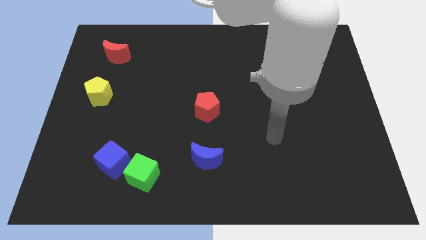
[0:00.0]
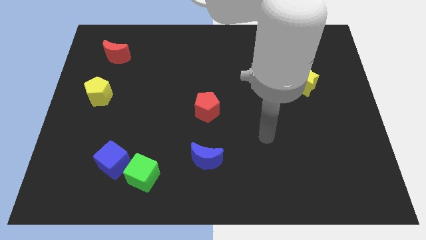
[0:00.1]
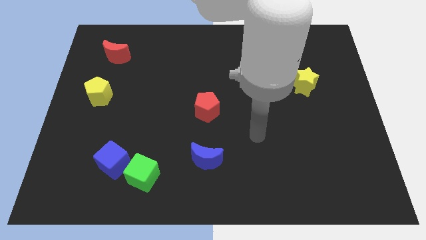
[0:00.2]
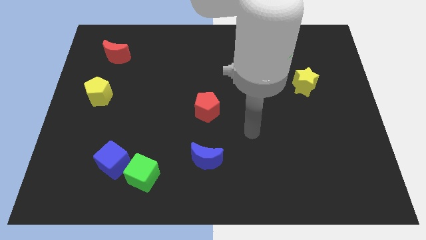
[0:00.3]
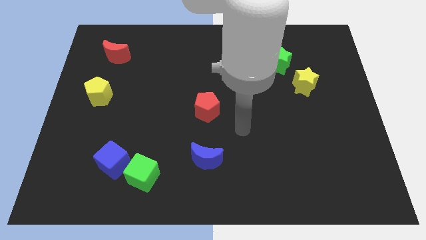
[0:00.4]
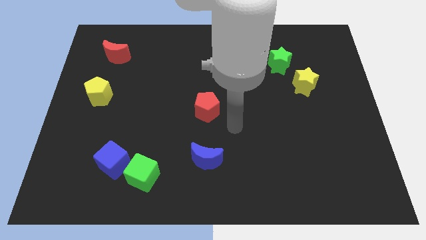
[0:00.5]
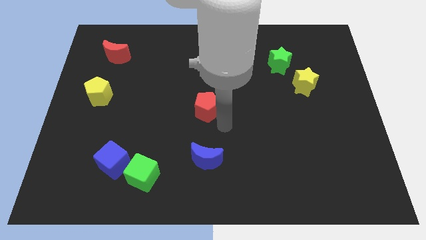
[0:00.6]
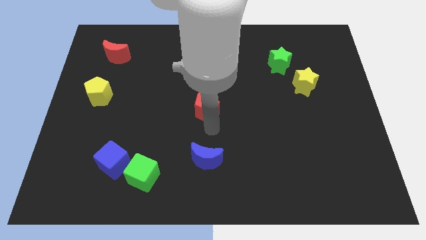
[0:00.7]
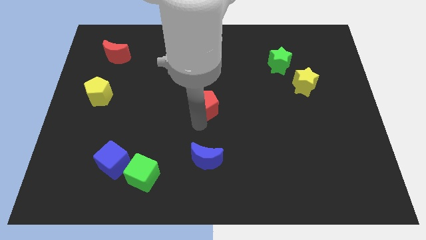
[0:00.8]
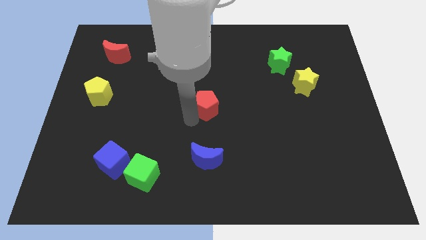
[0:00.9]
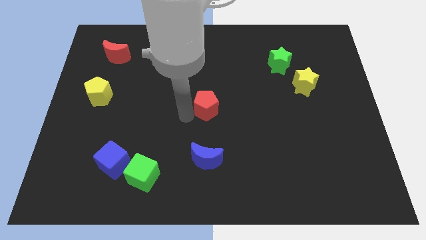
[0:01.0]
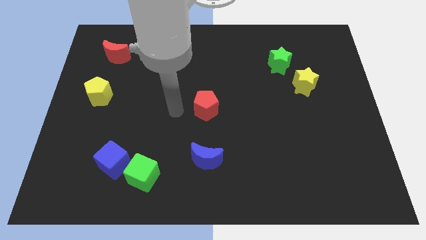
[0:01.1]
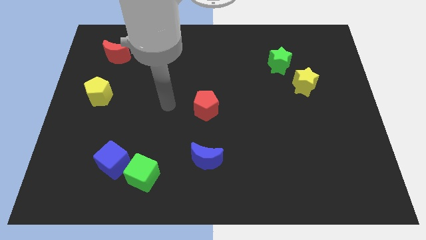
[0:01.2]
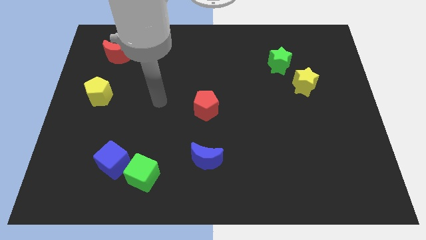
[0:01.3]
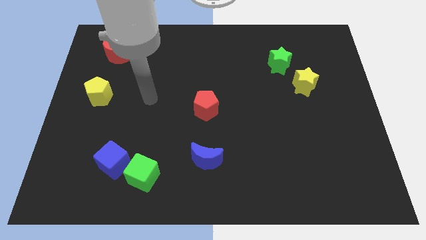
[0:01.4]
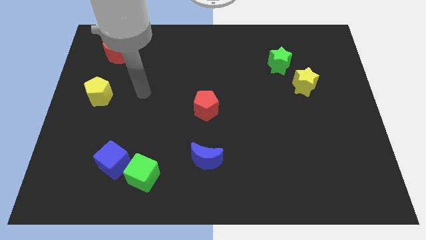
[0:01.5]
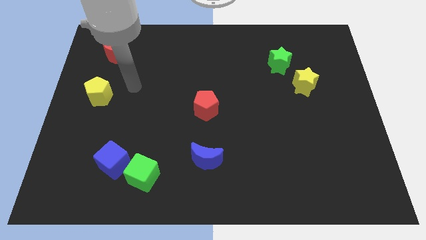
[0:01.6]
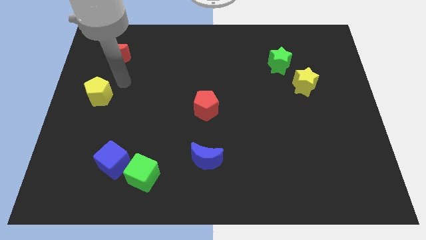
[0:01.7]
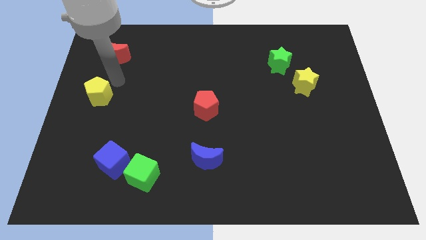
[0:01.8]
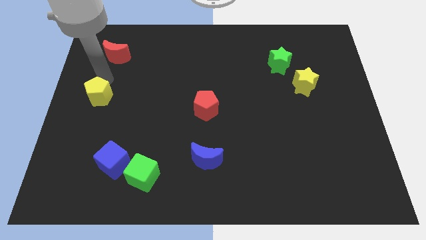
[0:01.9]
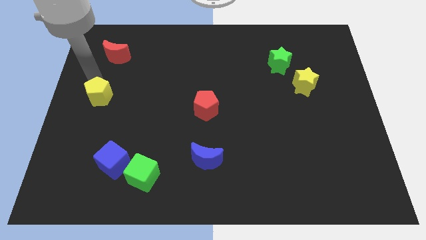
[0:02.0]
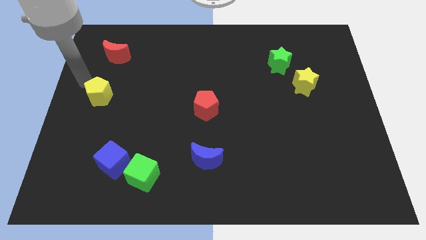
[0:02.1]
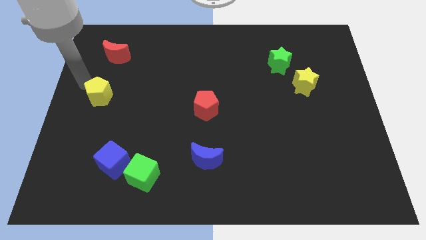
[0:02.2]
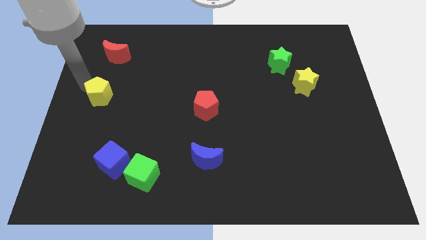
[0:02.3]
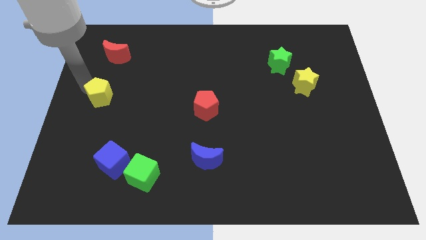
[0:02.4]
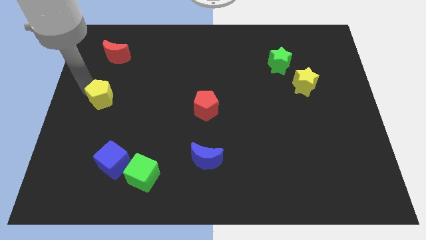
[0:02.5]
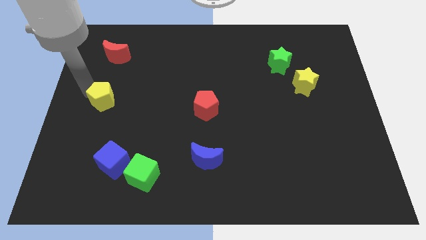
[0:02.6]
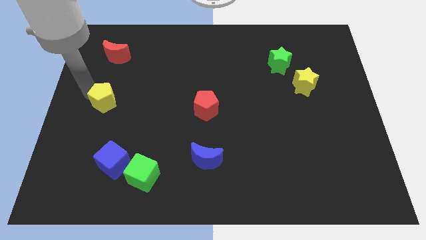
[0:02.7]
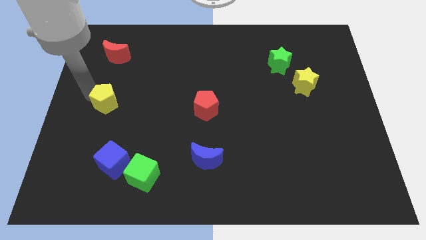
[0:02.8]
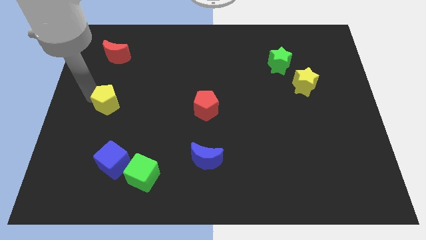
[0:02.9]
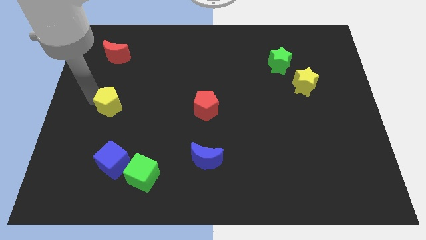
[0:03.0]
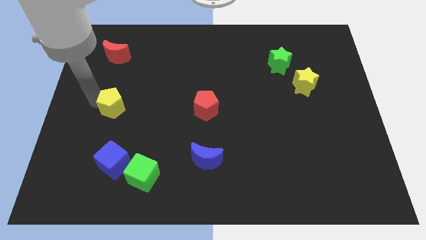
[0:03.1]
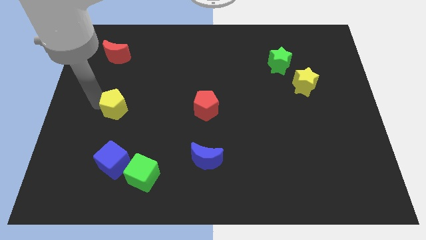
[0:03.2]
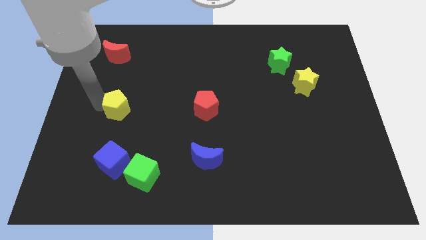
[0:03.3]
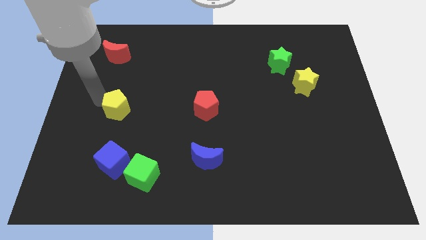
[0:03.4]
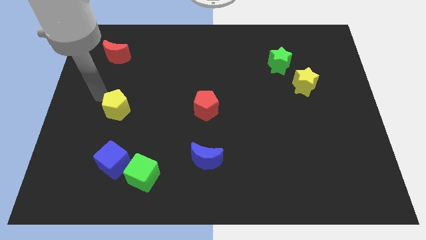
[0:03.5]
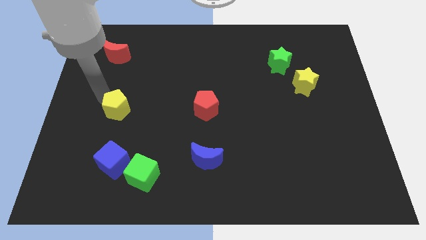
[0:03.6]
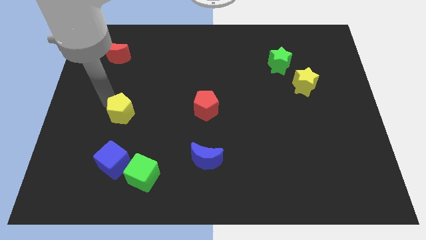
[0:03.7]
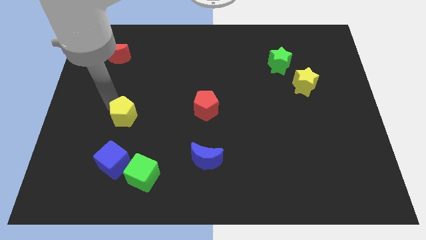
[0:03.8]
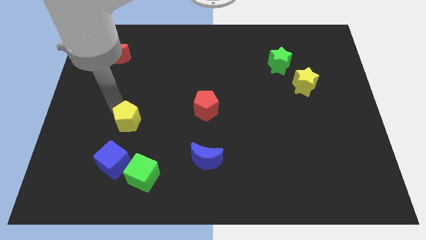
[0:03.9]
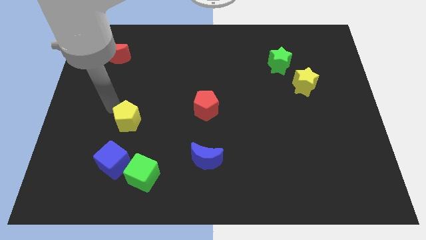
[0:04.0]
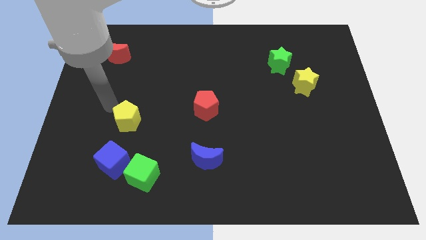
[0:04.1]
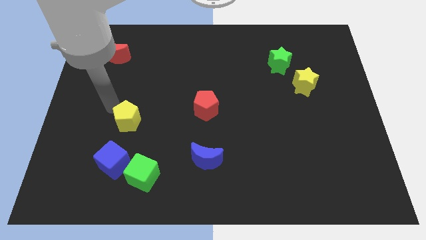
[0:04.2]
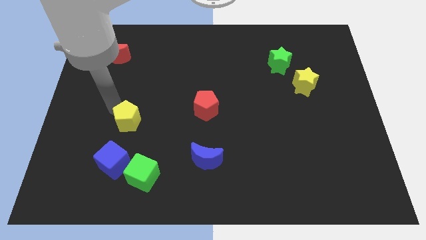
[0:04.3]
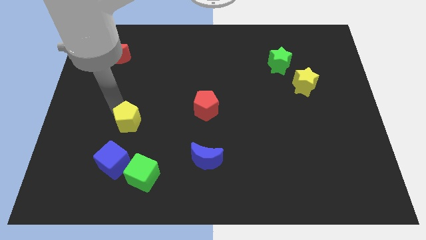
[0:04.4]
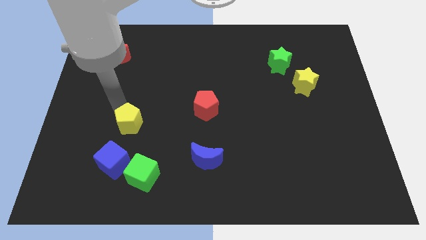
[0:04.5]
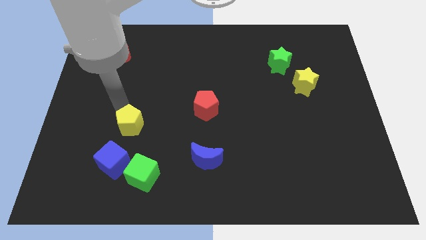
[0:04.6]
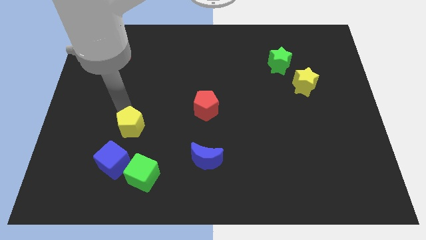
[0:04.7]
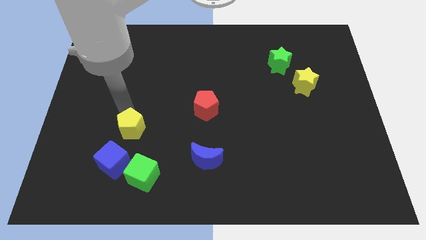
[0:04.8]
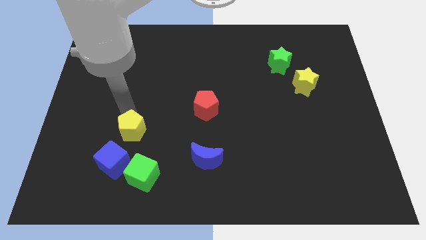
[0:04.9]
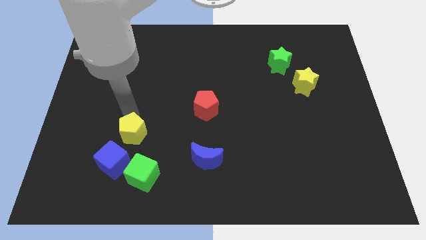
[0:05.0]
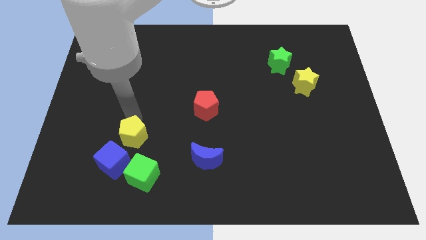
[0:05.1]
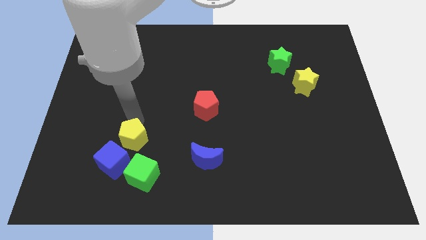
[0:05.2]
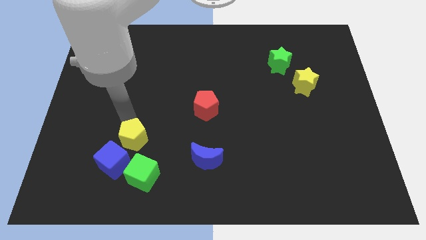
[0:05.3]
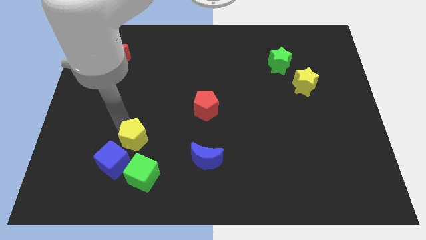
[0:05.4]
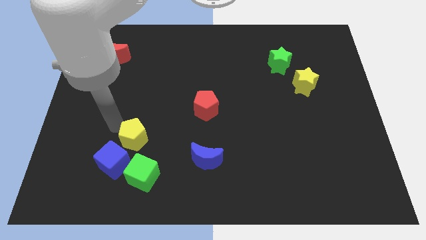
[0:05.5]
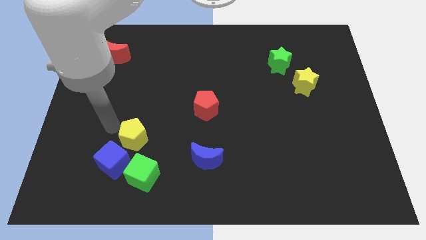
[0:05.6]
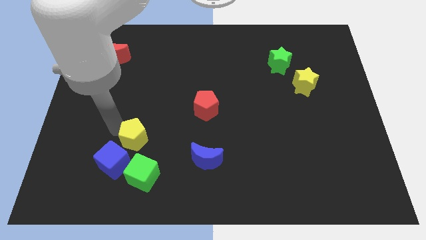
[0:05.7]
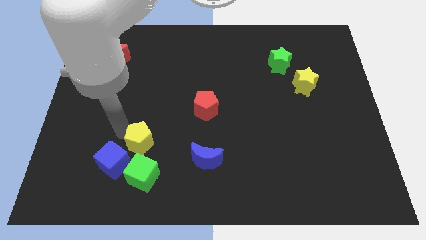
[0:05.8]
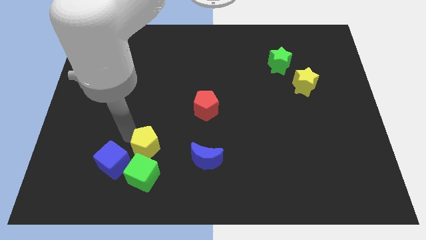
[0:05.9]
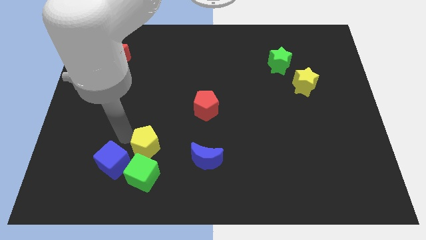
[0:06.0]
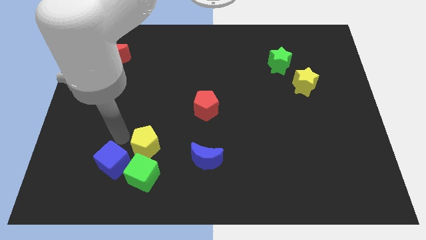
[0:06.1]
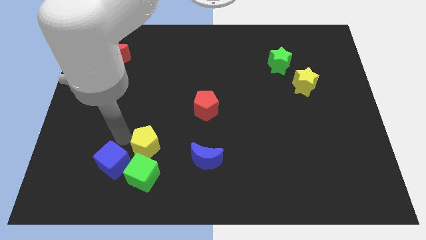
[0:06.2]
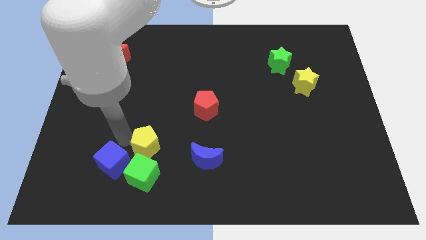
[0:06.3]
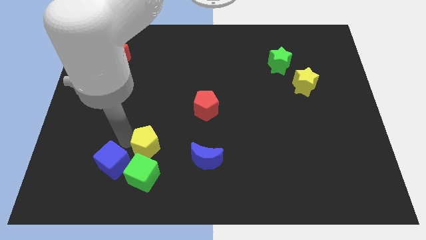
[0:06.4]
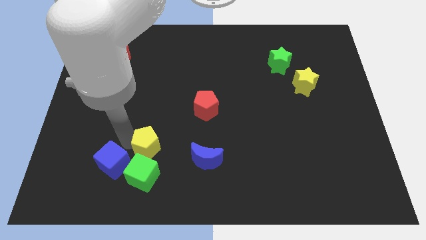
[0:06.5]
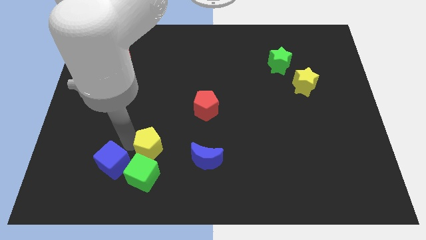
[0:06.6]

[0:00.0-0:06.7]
slide the yellow pentagon diagonally downwards and to the right

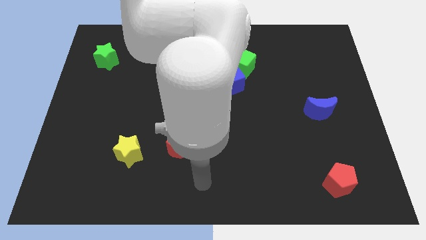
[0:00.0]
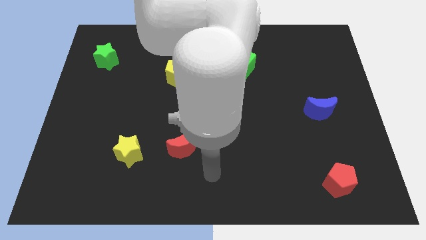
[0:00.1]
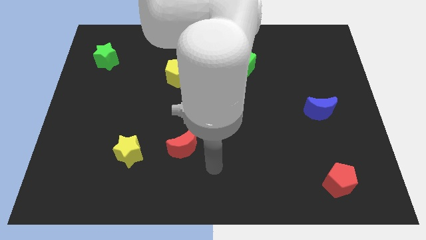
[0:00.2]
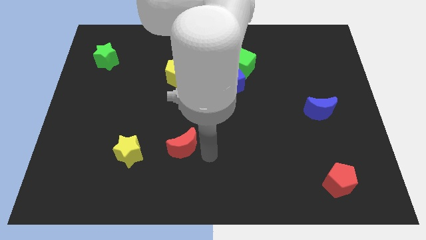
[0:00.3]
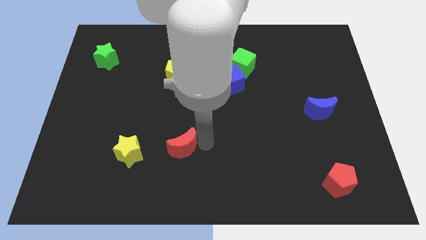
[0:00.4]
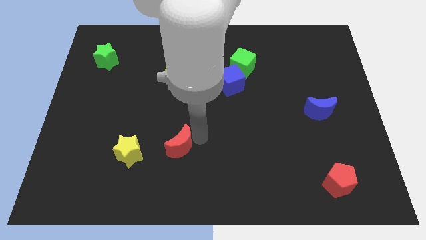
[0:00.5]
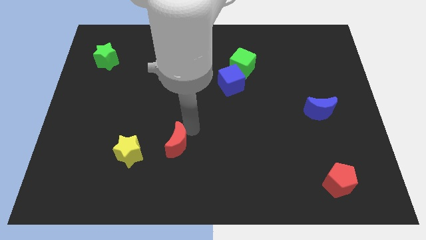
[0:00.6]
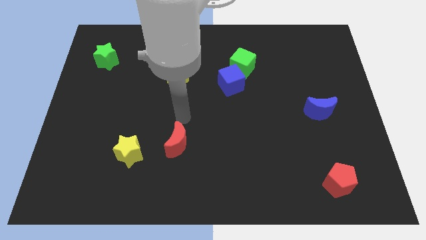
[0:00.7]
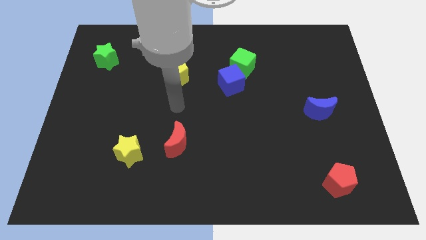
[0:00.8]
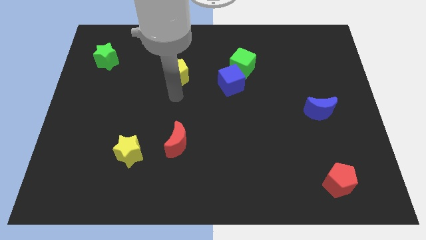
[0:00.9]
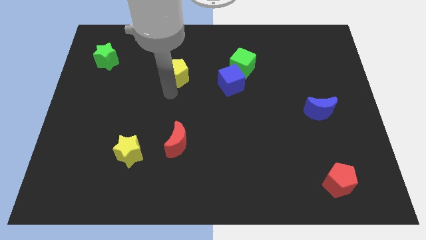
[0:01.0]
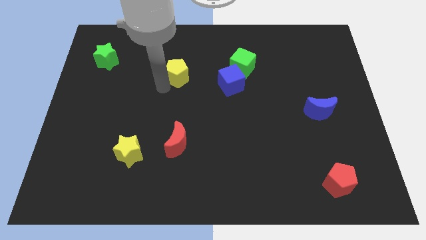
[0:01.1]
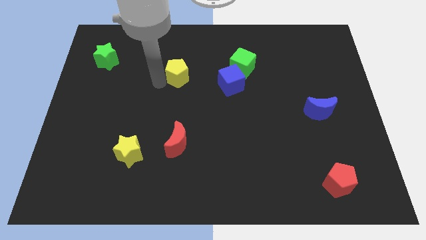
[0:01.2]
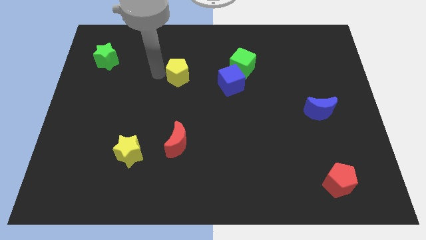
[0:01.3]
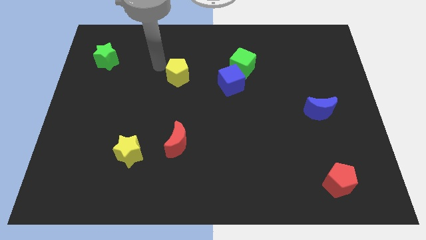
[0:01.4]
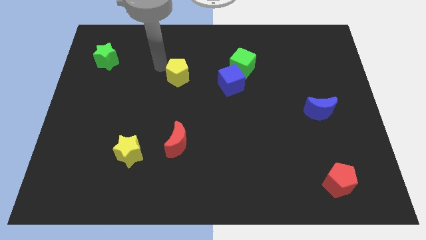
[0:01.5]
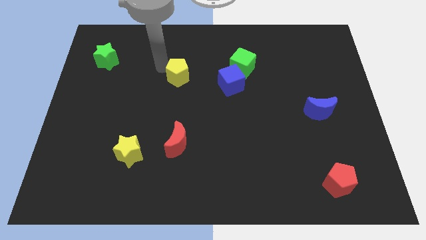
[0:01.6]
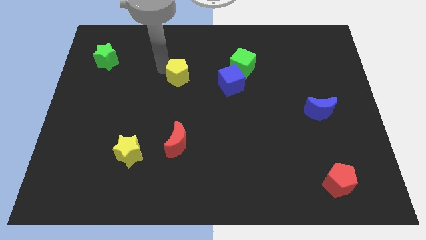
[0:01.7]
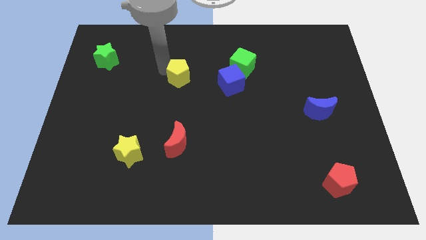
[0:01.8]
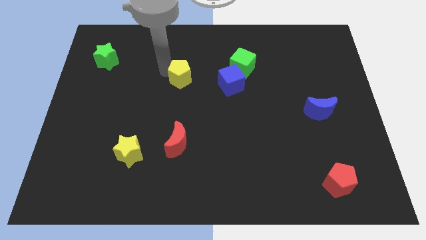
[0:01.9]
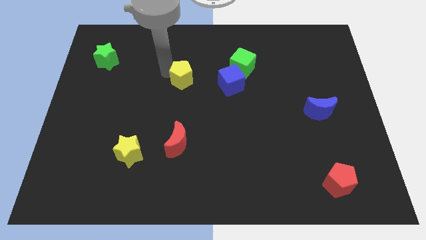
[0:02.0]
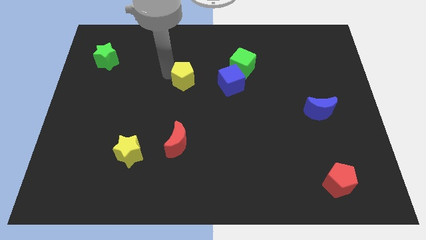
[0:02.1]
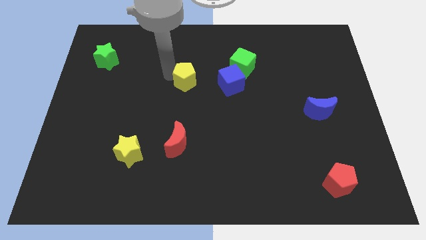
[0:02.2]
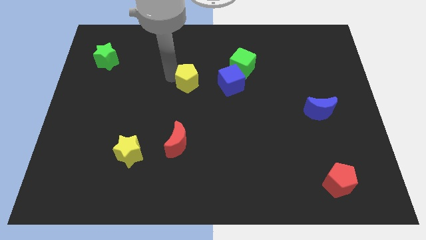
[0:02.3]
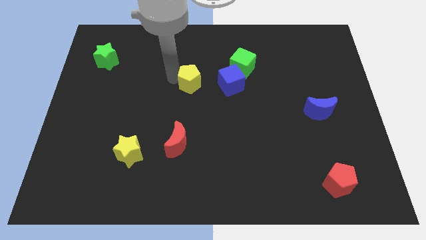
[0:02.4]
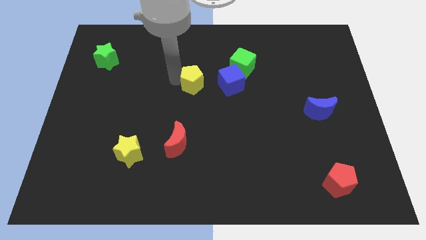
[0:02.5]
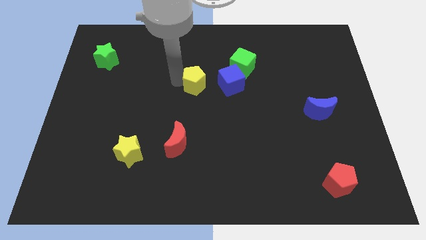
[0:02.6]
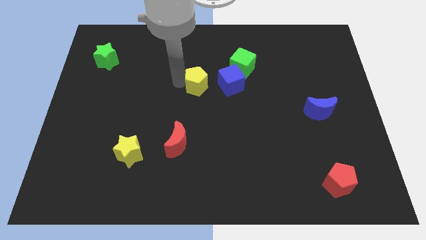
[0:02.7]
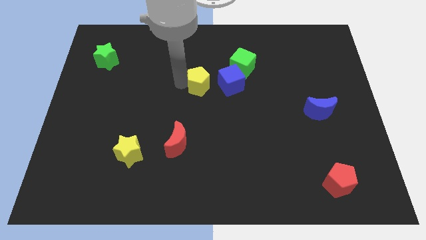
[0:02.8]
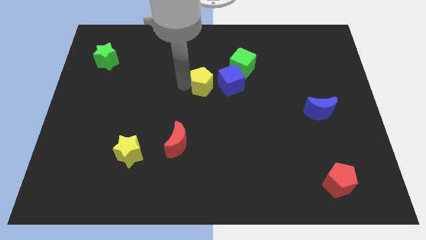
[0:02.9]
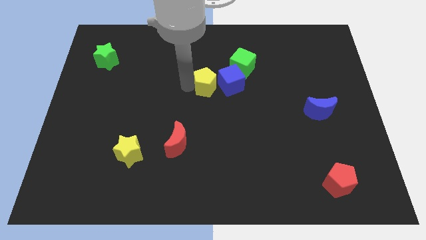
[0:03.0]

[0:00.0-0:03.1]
push the yellow pentagon a little to the right
